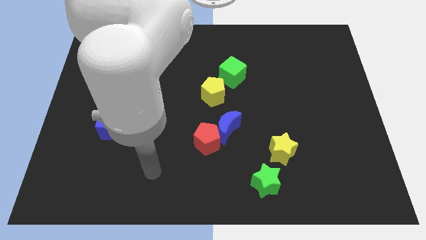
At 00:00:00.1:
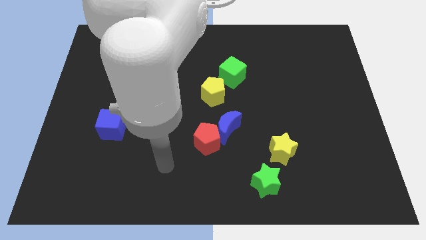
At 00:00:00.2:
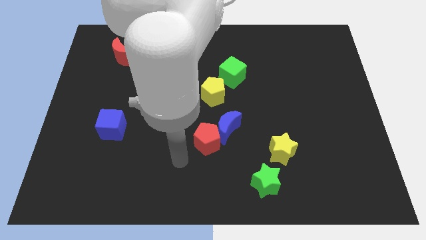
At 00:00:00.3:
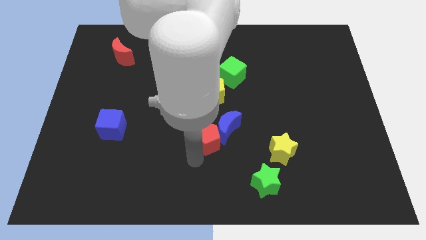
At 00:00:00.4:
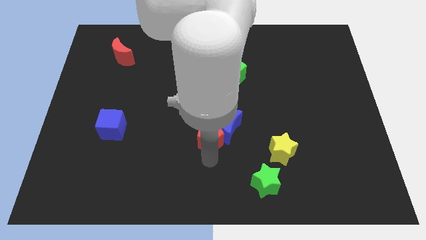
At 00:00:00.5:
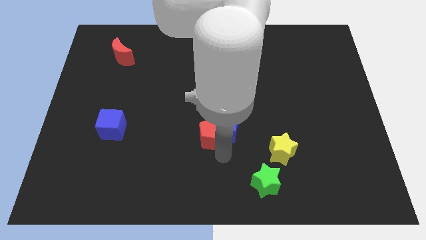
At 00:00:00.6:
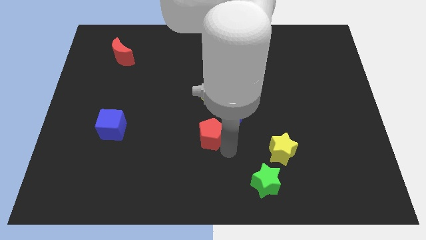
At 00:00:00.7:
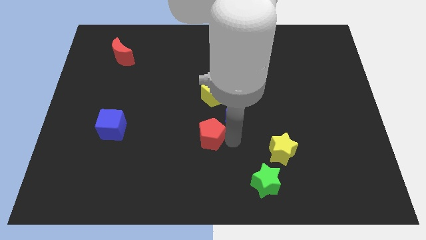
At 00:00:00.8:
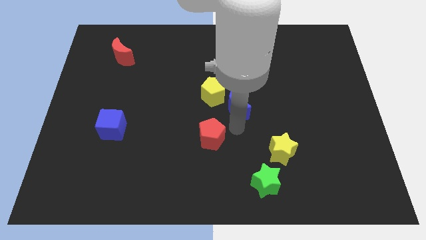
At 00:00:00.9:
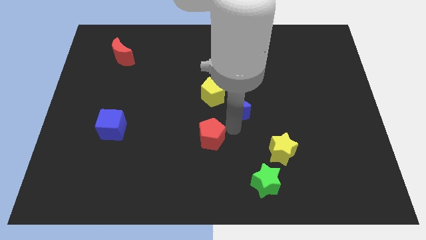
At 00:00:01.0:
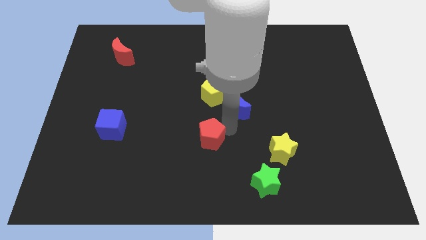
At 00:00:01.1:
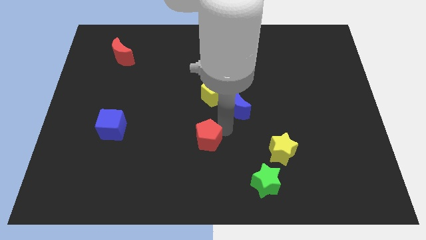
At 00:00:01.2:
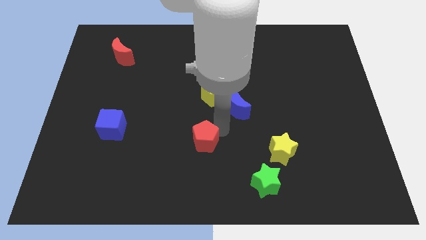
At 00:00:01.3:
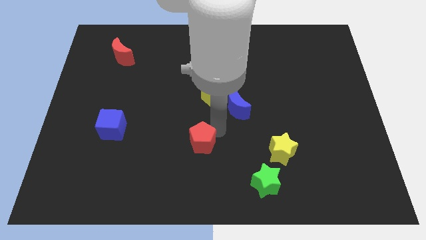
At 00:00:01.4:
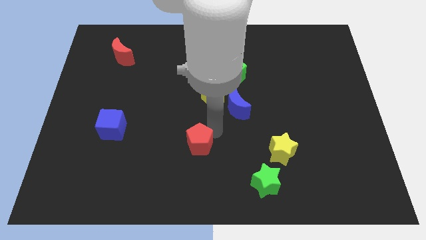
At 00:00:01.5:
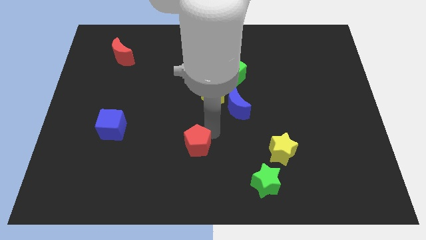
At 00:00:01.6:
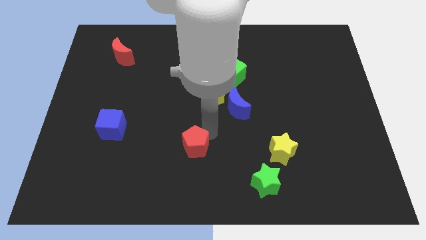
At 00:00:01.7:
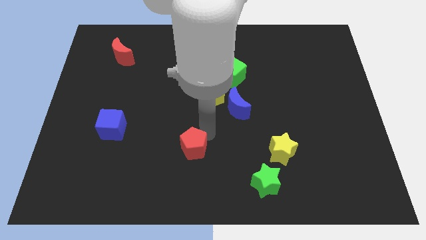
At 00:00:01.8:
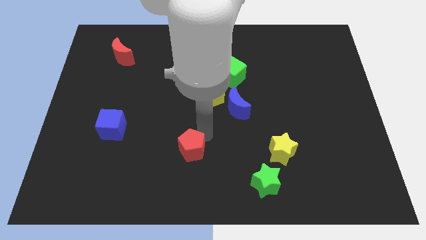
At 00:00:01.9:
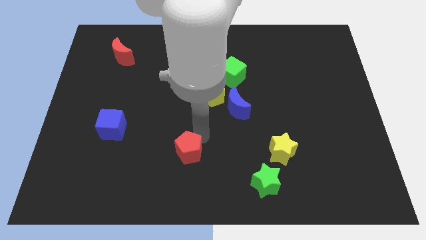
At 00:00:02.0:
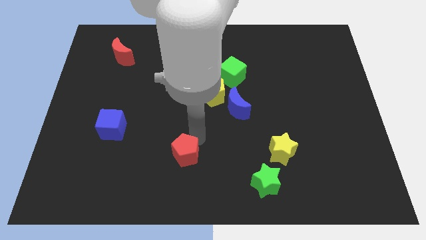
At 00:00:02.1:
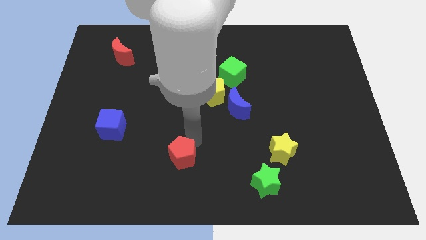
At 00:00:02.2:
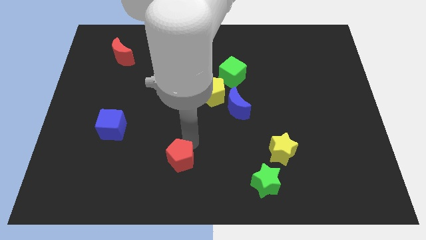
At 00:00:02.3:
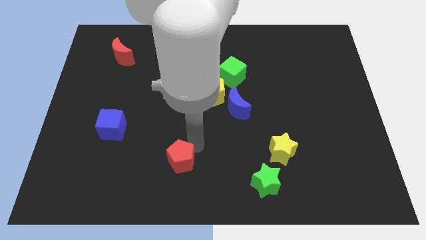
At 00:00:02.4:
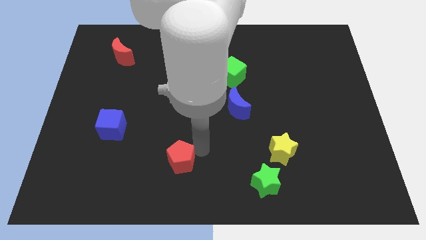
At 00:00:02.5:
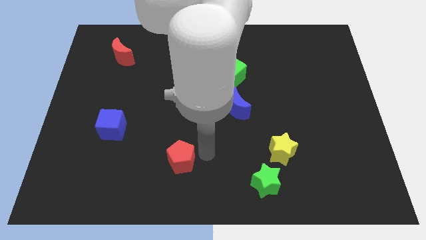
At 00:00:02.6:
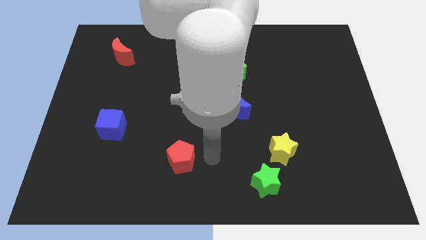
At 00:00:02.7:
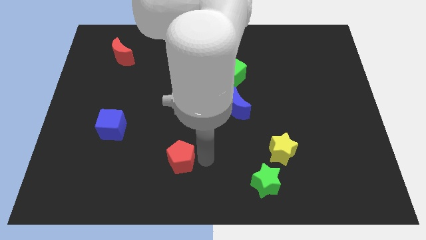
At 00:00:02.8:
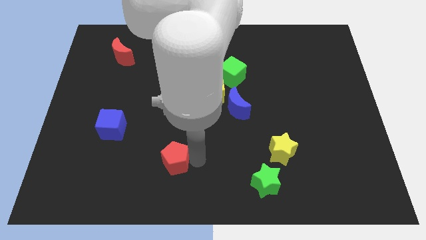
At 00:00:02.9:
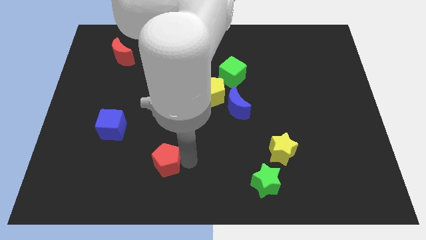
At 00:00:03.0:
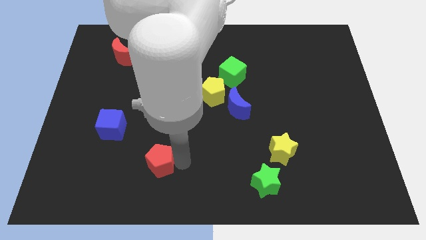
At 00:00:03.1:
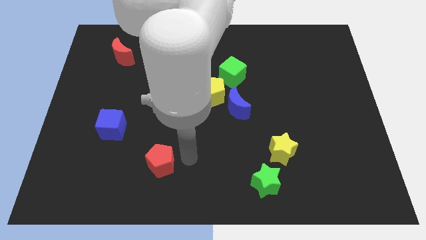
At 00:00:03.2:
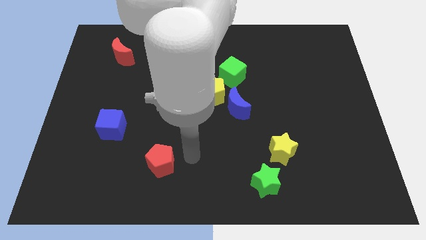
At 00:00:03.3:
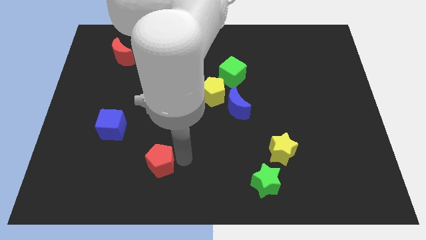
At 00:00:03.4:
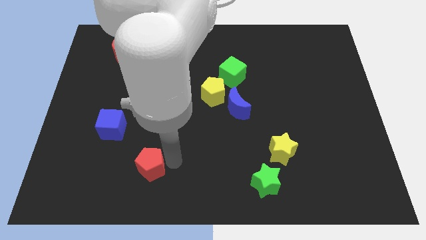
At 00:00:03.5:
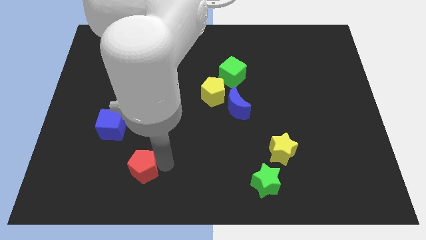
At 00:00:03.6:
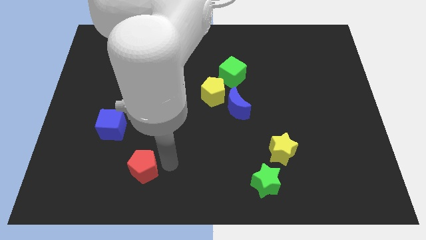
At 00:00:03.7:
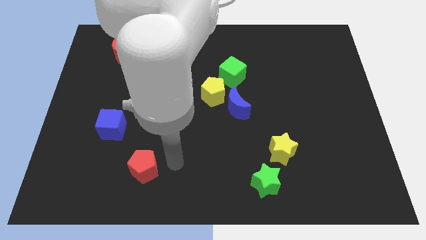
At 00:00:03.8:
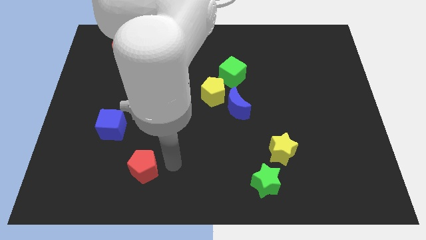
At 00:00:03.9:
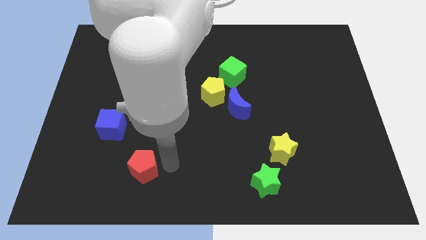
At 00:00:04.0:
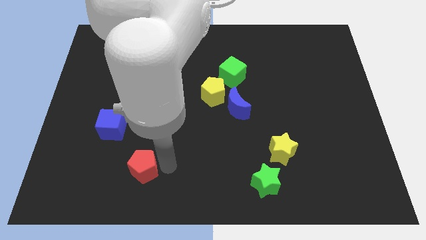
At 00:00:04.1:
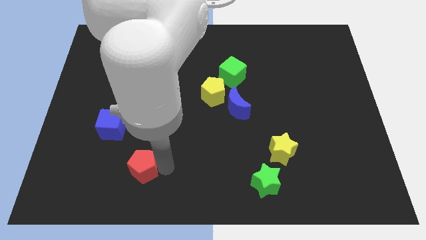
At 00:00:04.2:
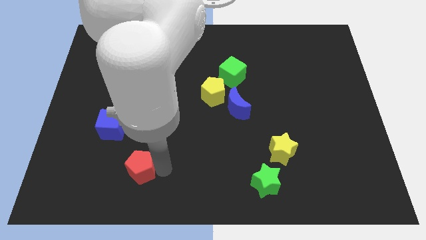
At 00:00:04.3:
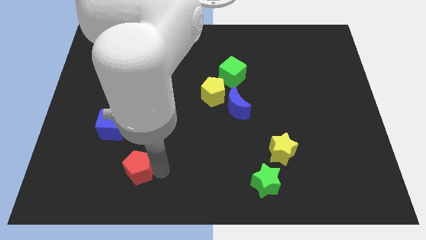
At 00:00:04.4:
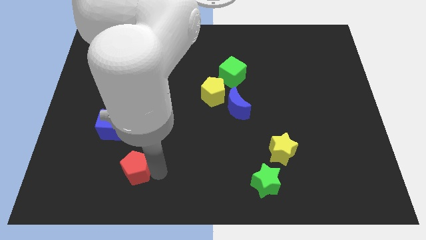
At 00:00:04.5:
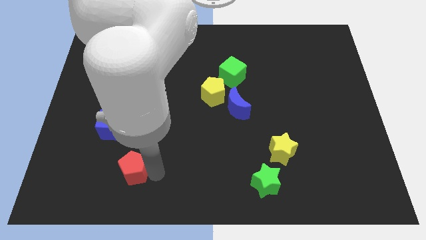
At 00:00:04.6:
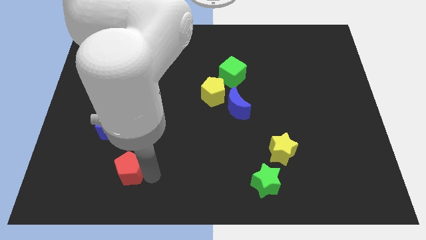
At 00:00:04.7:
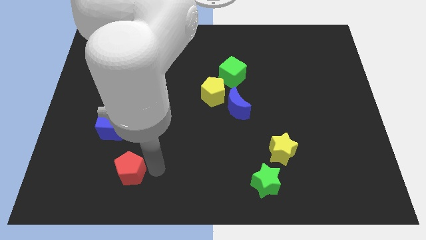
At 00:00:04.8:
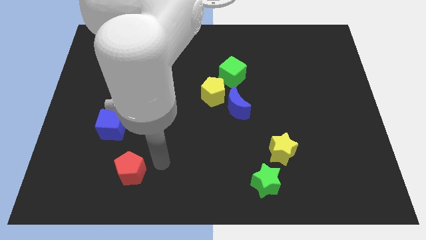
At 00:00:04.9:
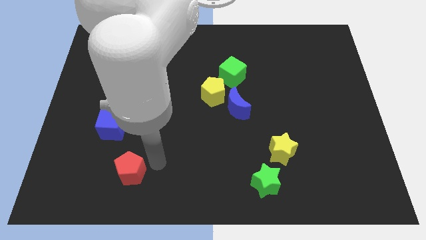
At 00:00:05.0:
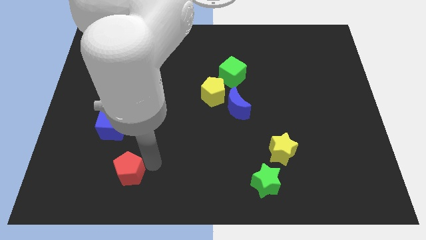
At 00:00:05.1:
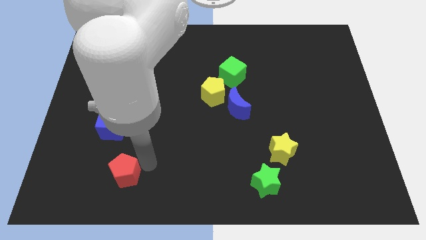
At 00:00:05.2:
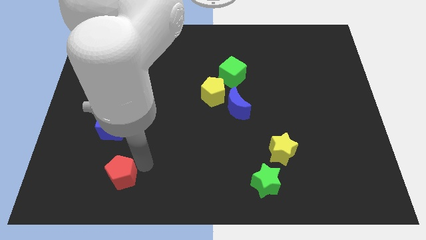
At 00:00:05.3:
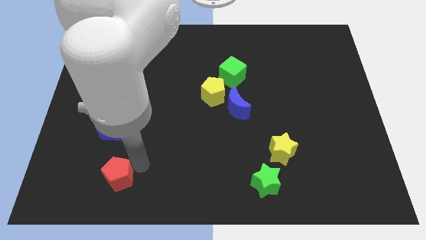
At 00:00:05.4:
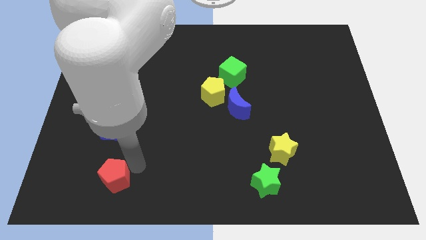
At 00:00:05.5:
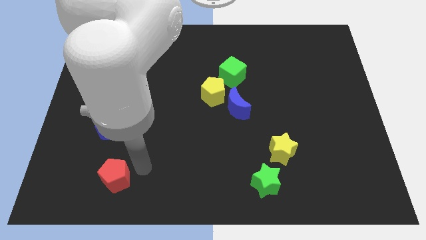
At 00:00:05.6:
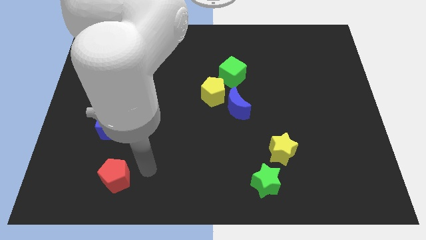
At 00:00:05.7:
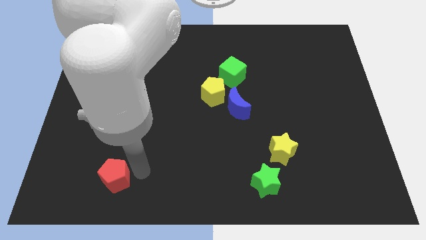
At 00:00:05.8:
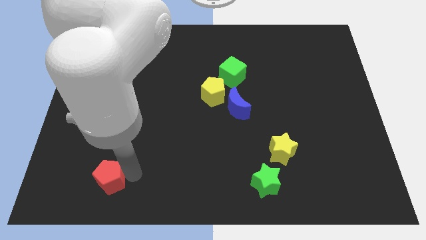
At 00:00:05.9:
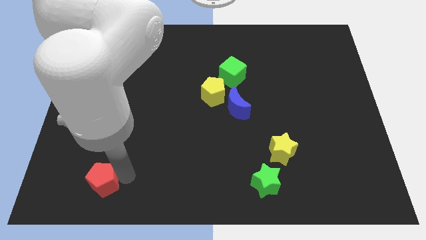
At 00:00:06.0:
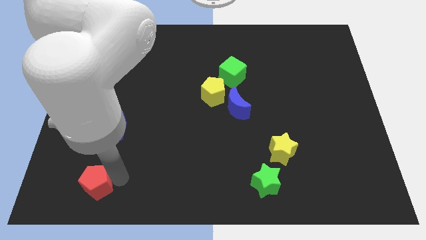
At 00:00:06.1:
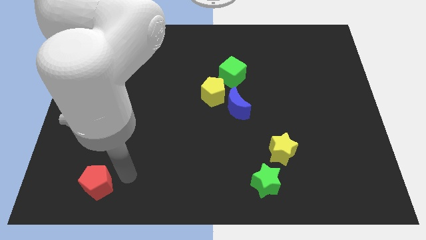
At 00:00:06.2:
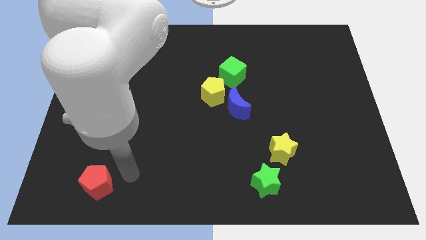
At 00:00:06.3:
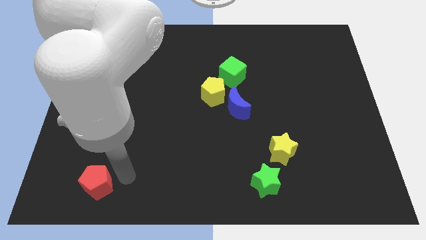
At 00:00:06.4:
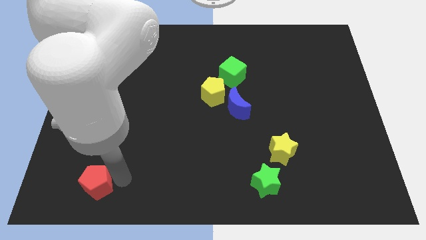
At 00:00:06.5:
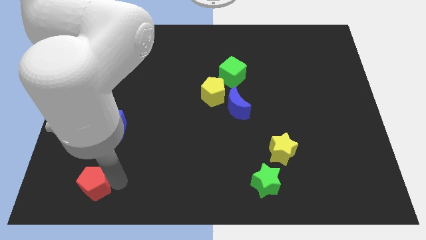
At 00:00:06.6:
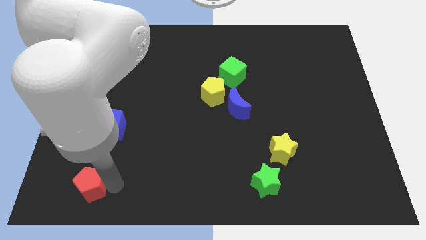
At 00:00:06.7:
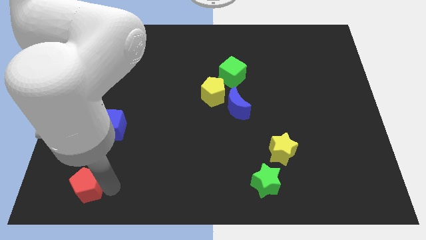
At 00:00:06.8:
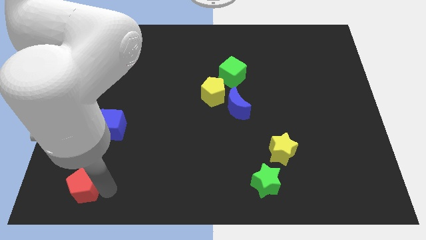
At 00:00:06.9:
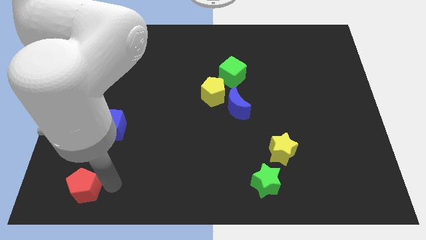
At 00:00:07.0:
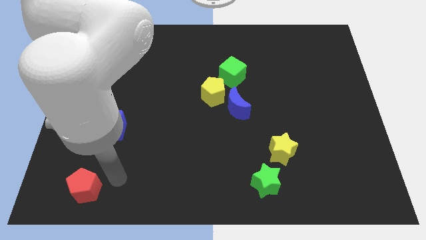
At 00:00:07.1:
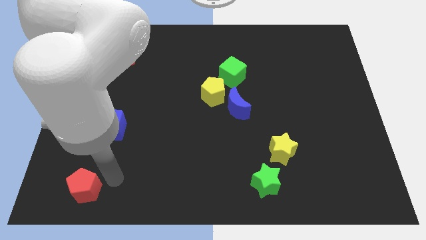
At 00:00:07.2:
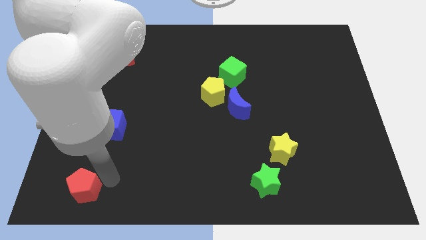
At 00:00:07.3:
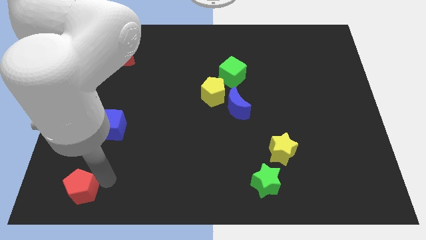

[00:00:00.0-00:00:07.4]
push the red pentagon to the bottom left of the board
